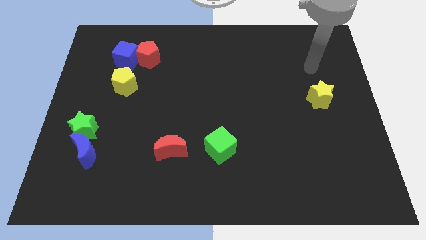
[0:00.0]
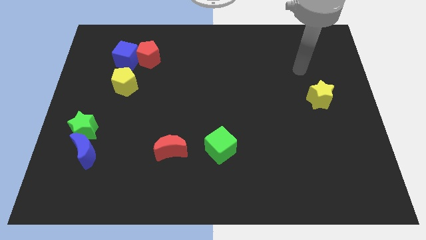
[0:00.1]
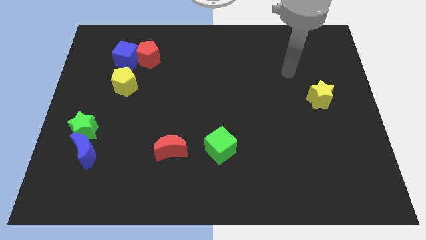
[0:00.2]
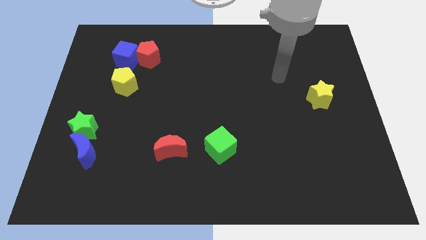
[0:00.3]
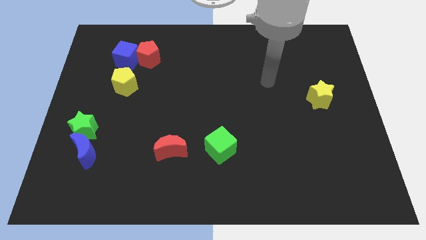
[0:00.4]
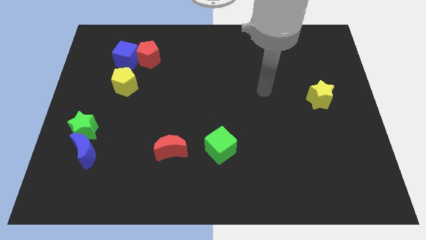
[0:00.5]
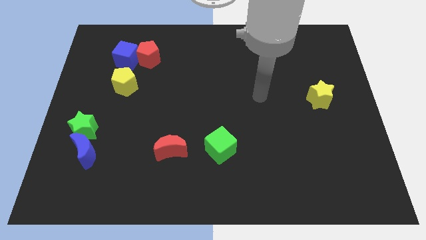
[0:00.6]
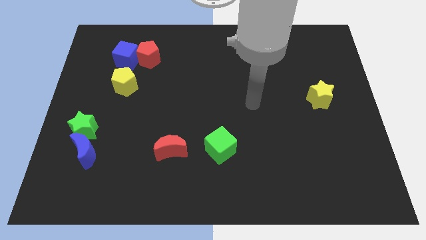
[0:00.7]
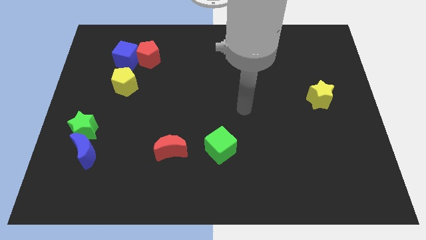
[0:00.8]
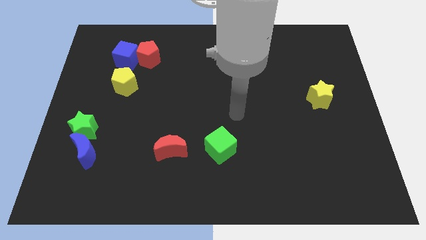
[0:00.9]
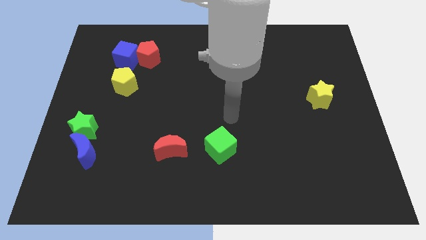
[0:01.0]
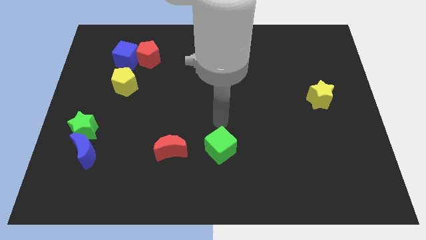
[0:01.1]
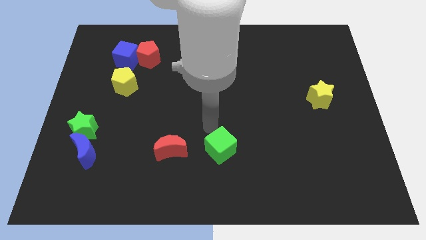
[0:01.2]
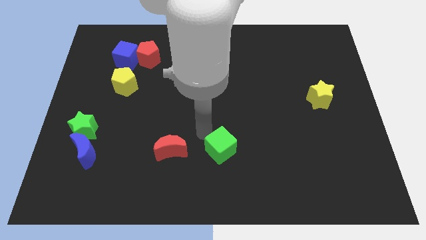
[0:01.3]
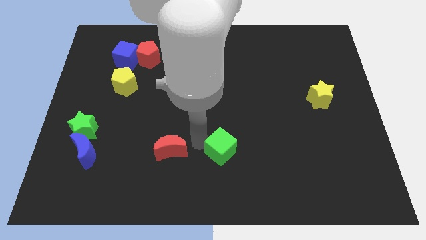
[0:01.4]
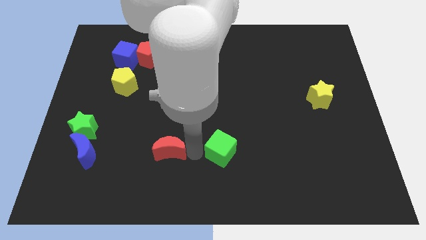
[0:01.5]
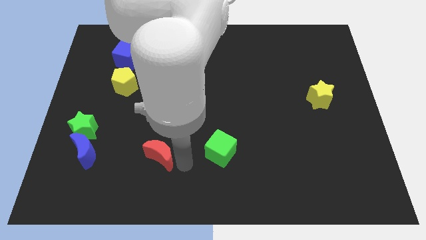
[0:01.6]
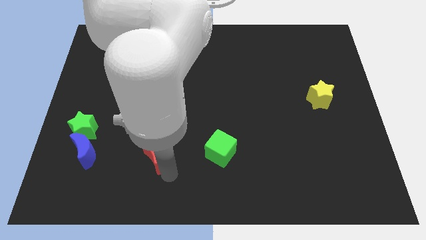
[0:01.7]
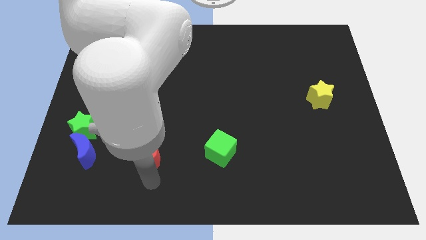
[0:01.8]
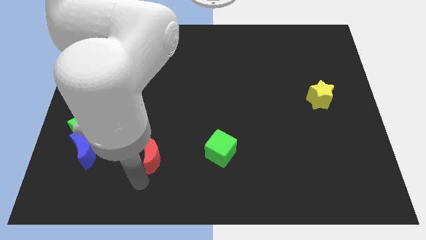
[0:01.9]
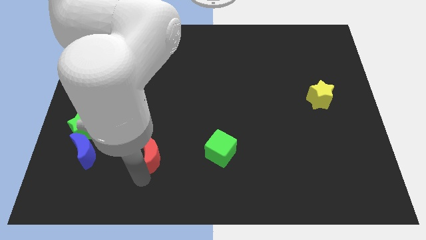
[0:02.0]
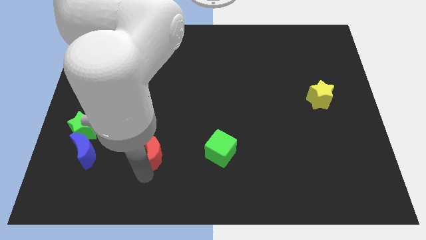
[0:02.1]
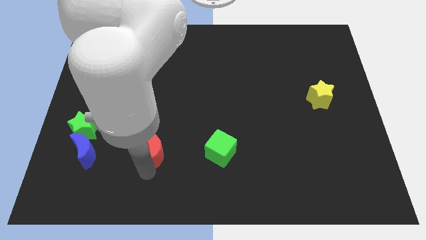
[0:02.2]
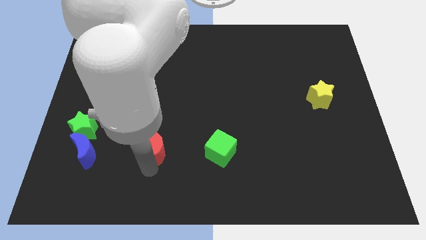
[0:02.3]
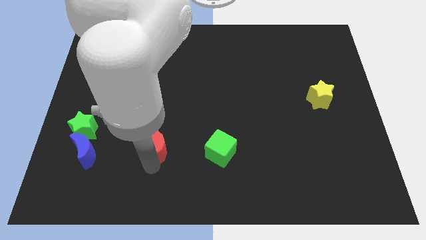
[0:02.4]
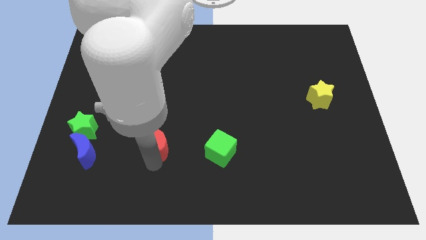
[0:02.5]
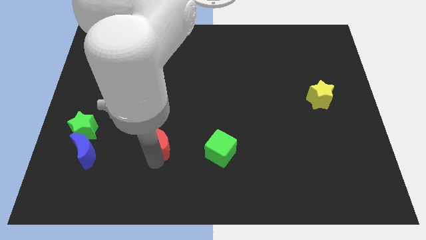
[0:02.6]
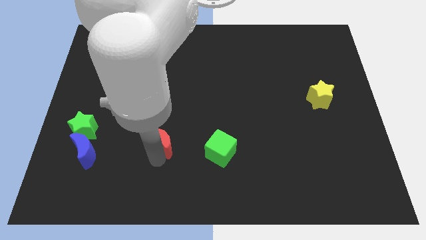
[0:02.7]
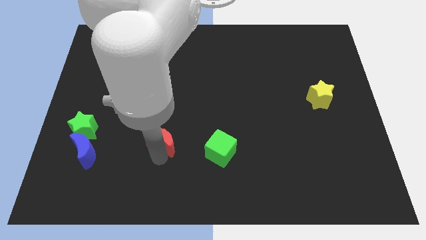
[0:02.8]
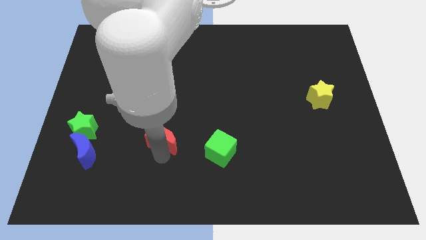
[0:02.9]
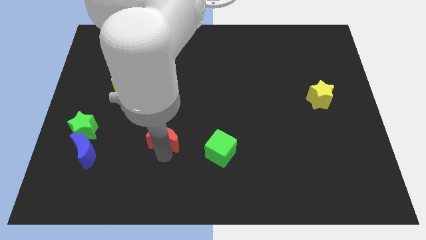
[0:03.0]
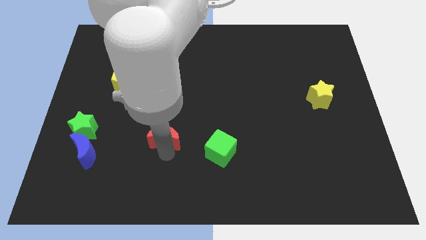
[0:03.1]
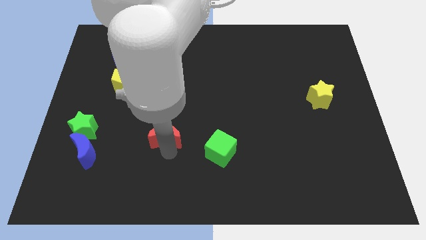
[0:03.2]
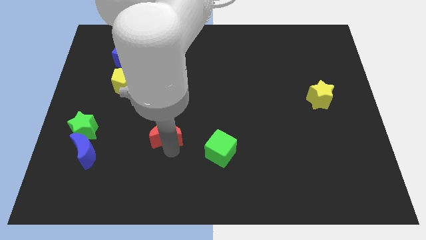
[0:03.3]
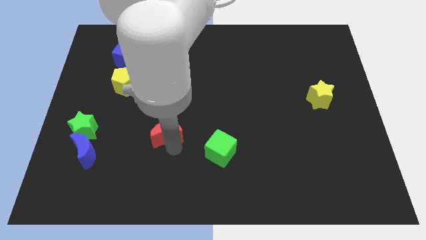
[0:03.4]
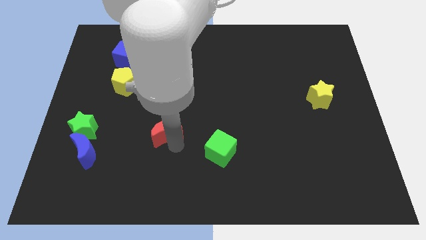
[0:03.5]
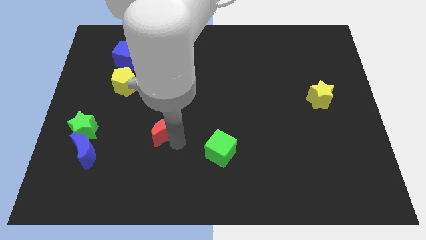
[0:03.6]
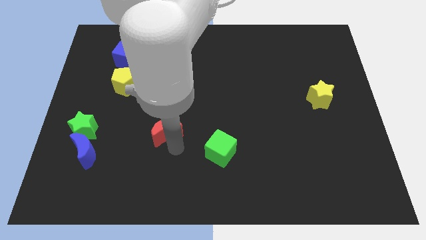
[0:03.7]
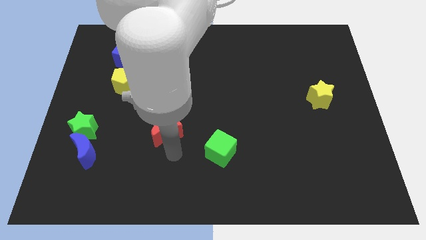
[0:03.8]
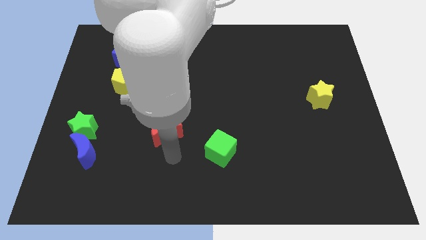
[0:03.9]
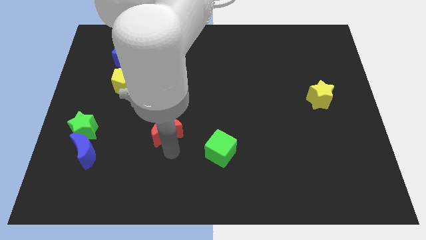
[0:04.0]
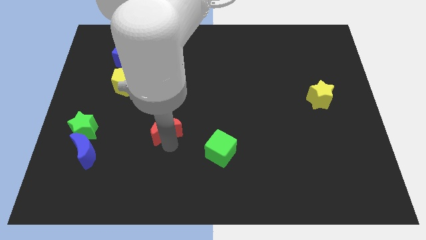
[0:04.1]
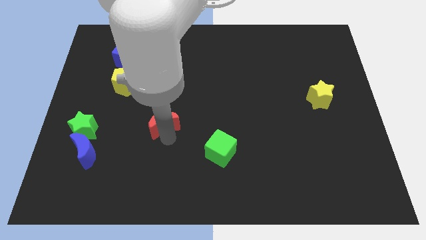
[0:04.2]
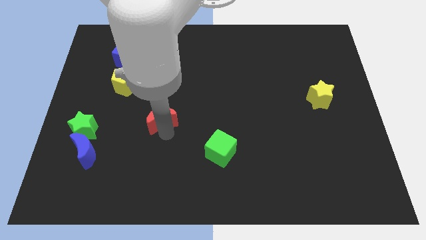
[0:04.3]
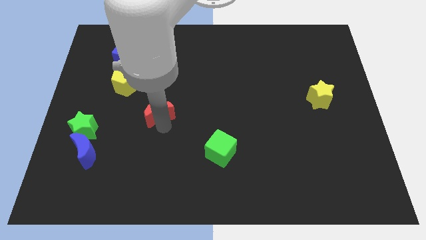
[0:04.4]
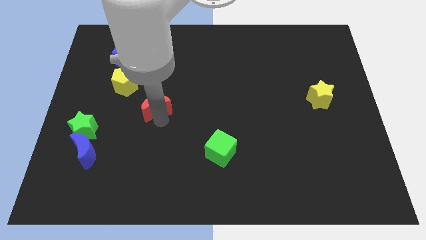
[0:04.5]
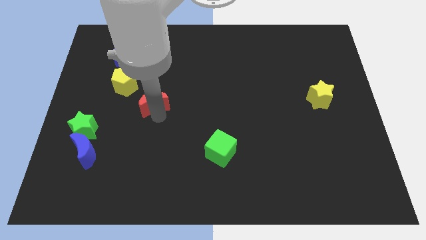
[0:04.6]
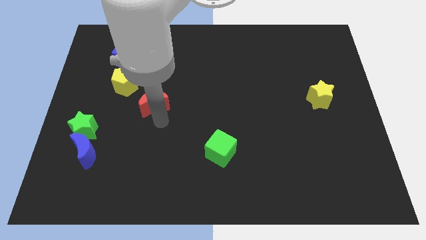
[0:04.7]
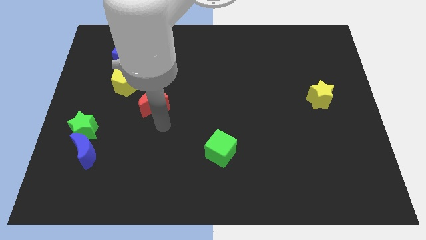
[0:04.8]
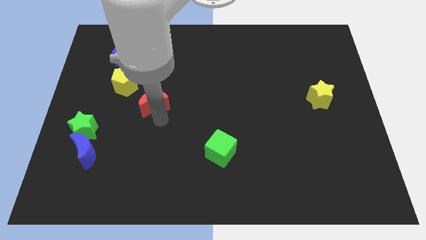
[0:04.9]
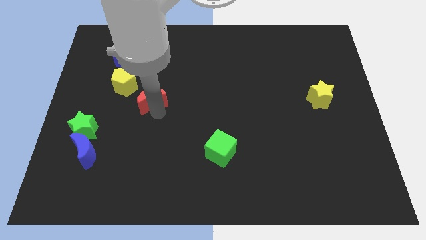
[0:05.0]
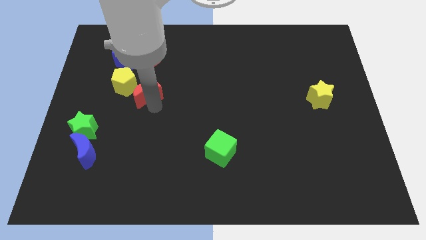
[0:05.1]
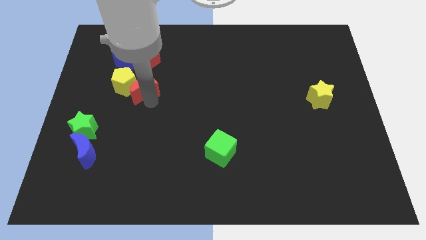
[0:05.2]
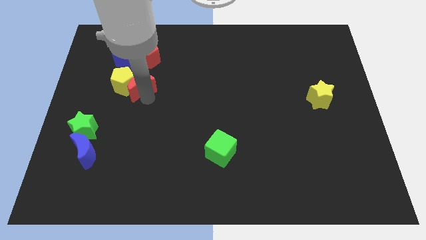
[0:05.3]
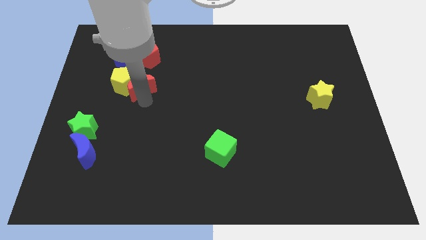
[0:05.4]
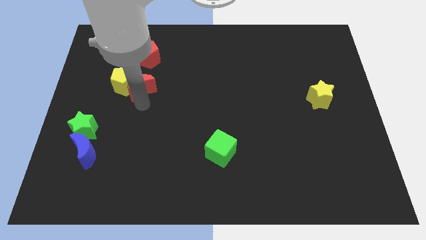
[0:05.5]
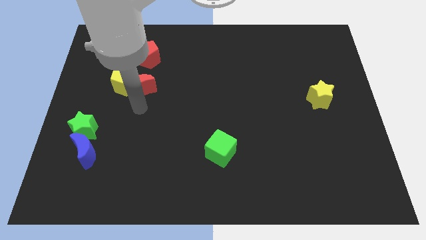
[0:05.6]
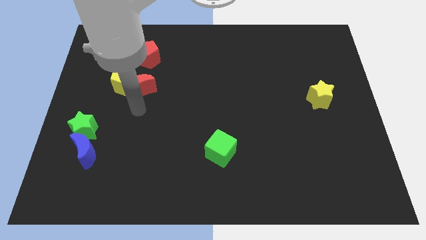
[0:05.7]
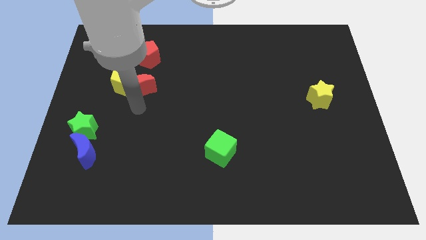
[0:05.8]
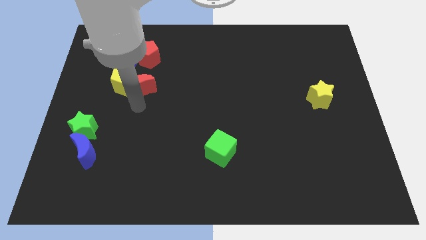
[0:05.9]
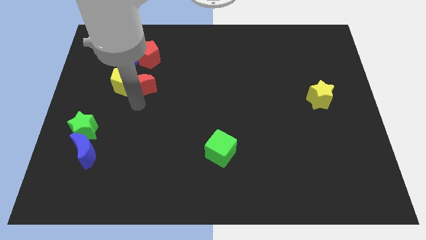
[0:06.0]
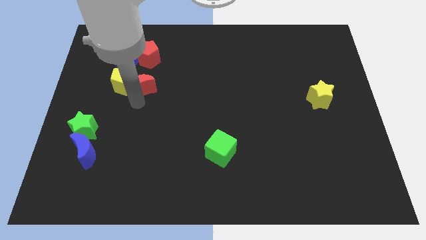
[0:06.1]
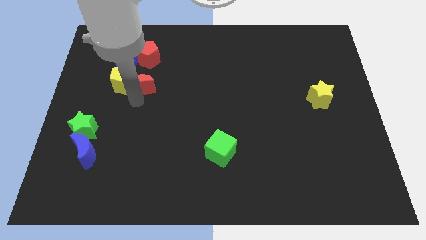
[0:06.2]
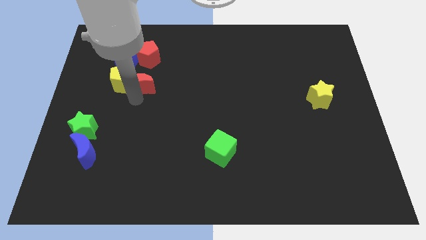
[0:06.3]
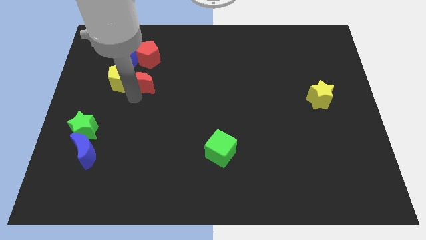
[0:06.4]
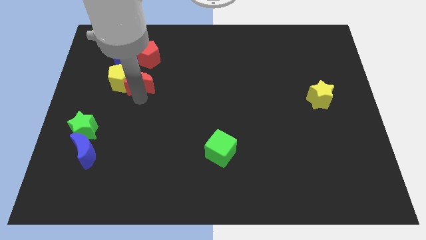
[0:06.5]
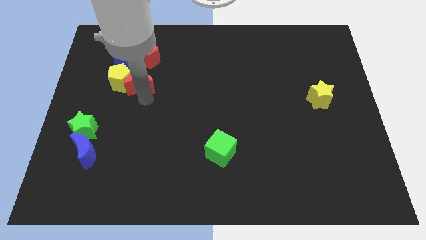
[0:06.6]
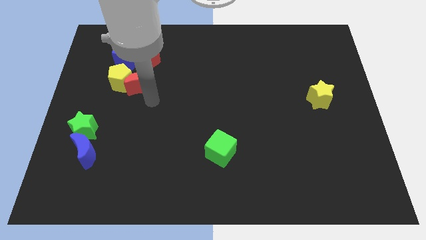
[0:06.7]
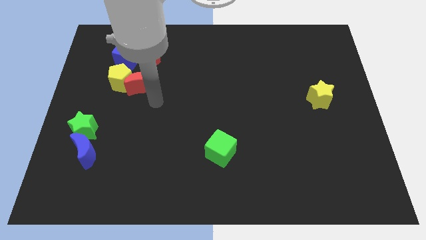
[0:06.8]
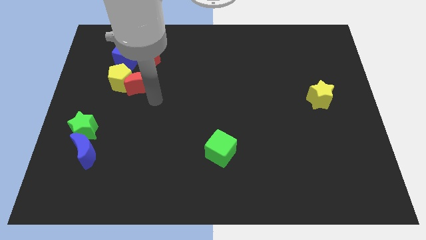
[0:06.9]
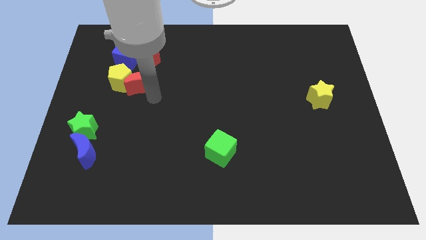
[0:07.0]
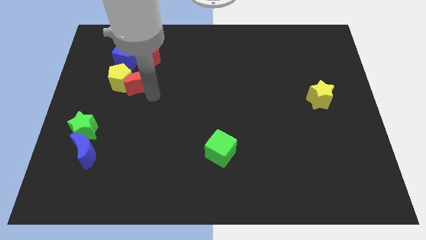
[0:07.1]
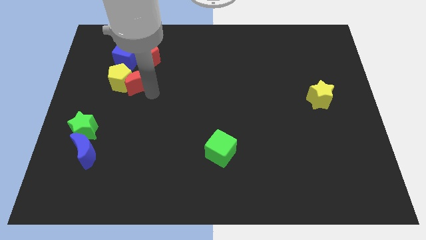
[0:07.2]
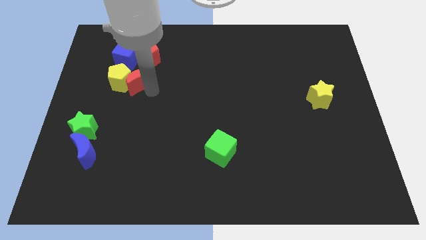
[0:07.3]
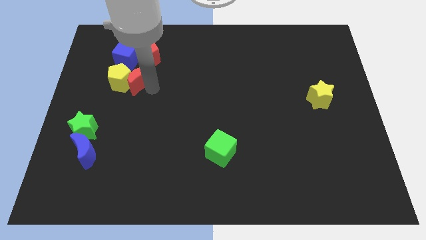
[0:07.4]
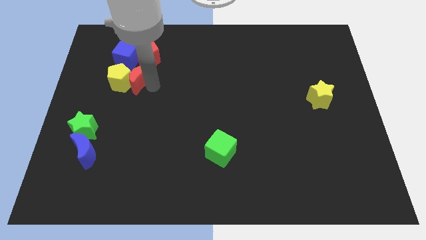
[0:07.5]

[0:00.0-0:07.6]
slide the red moon to the bottom left side of the red pentagon

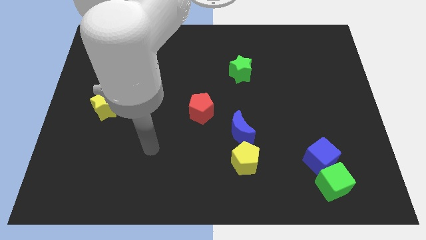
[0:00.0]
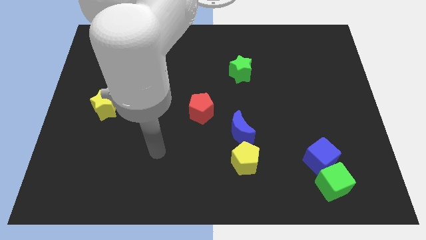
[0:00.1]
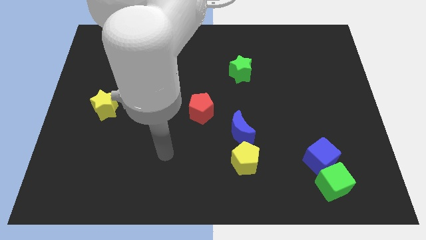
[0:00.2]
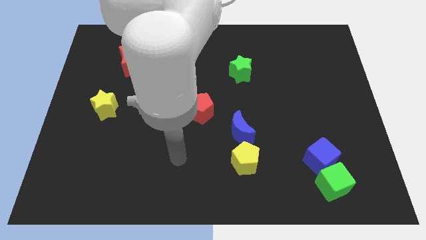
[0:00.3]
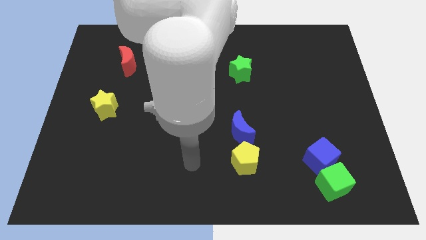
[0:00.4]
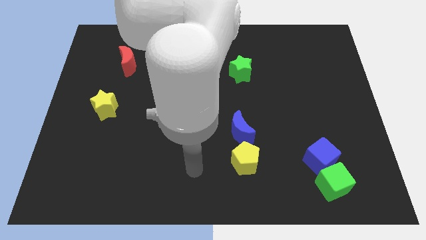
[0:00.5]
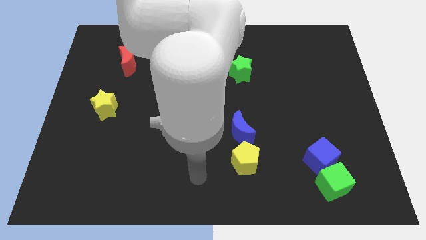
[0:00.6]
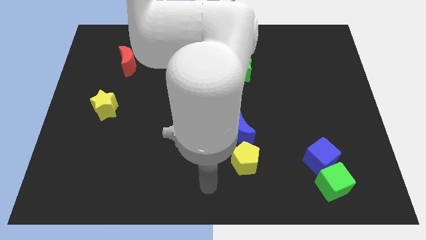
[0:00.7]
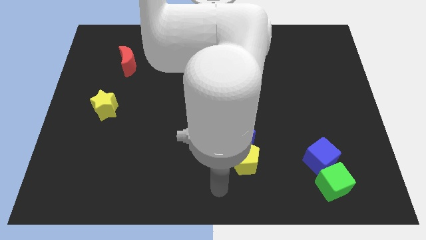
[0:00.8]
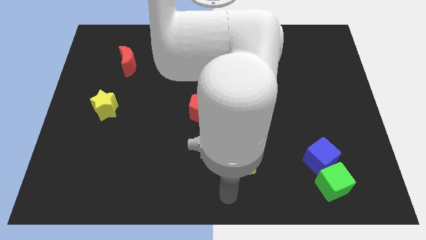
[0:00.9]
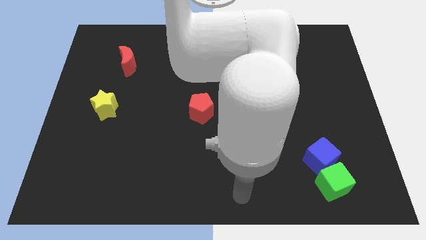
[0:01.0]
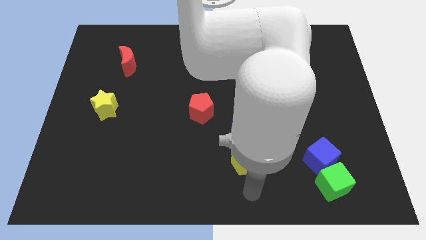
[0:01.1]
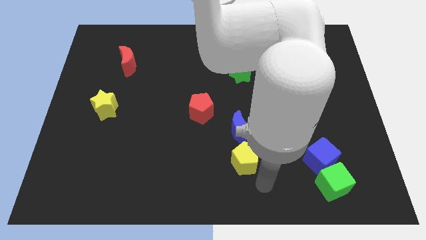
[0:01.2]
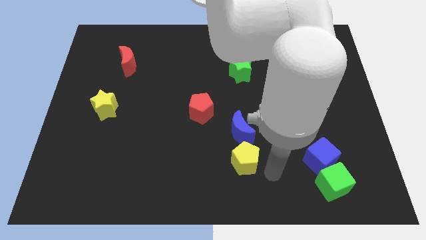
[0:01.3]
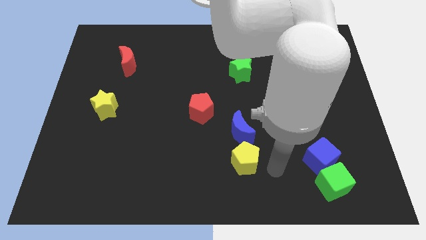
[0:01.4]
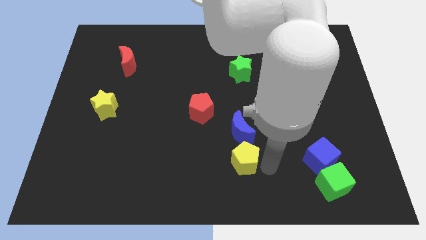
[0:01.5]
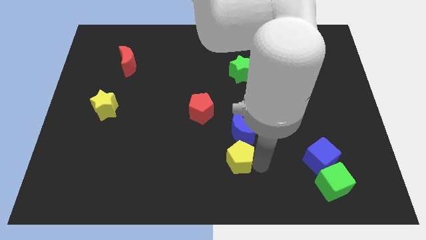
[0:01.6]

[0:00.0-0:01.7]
put the yellow pentagon to the bottom left of the blue moon
